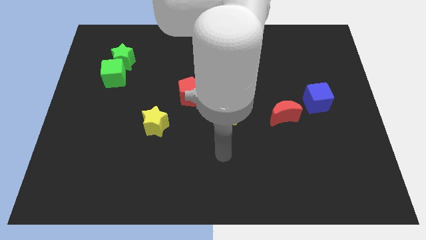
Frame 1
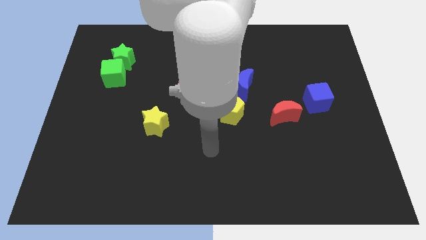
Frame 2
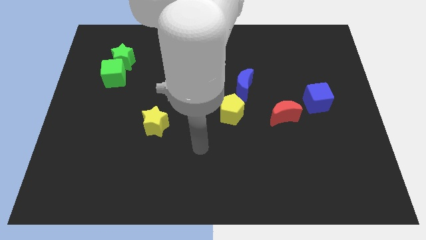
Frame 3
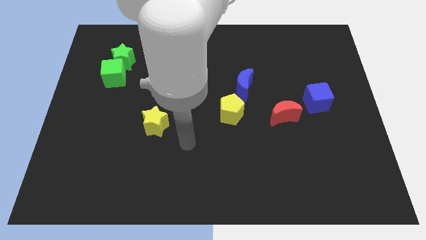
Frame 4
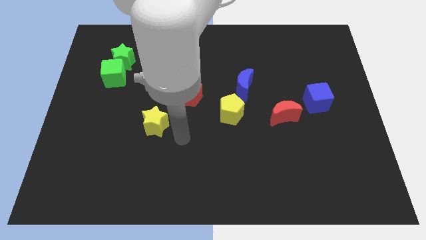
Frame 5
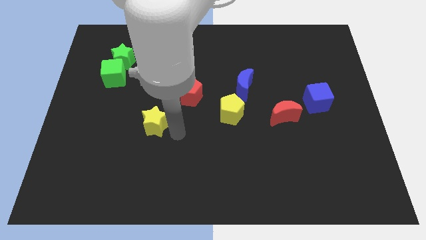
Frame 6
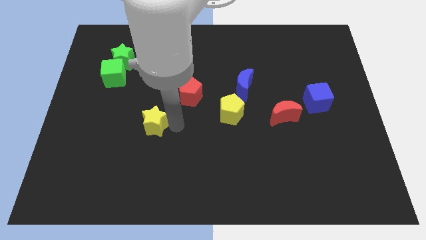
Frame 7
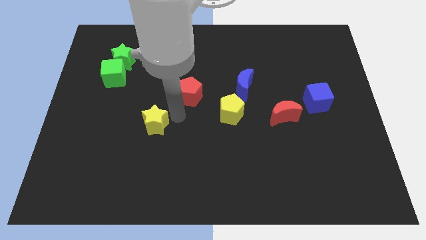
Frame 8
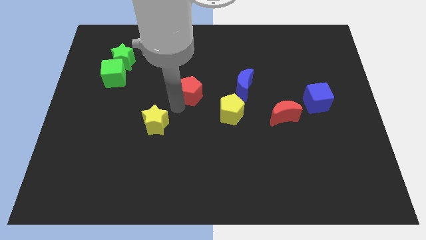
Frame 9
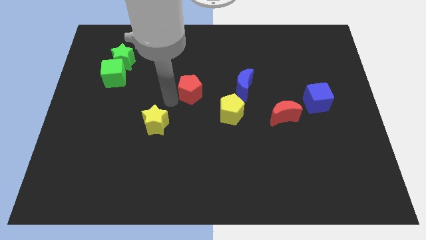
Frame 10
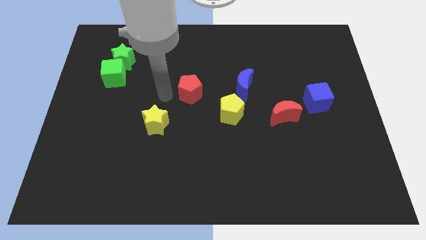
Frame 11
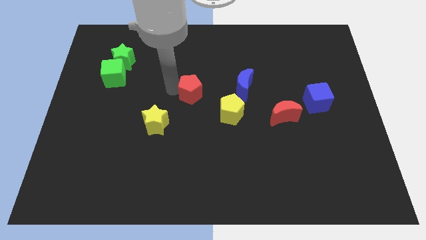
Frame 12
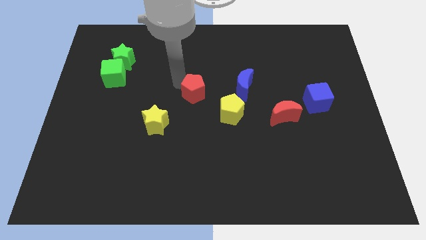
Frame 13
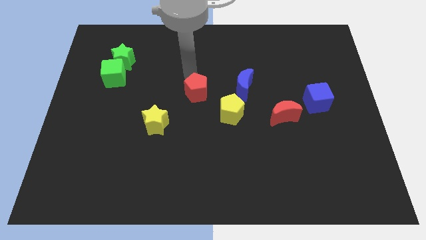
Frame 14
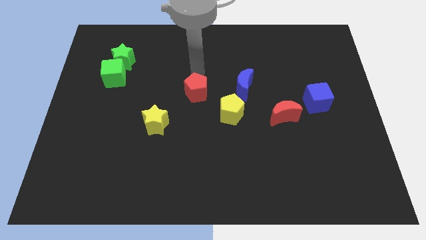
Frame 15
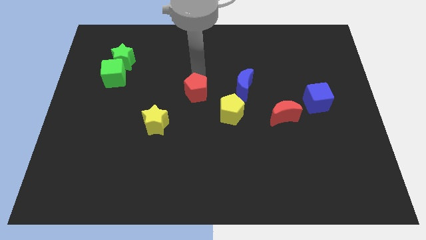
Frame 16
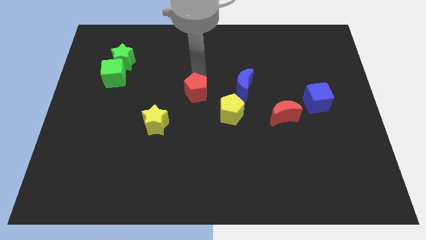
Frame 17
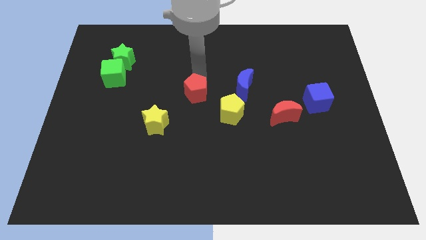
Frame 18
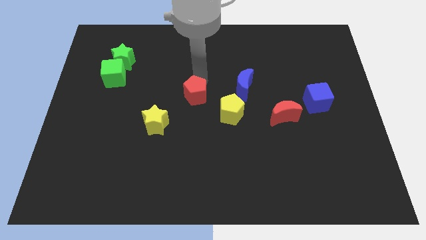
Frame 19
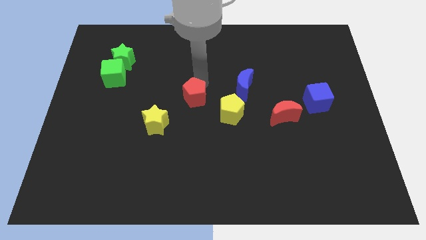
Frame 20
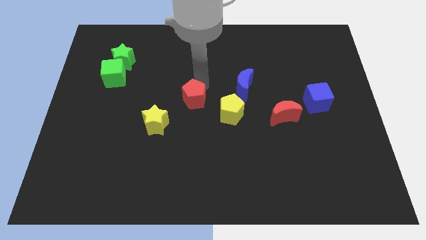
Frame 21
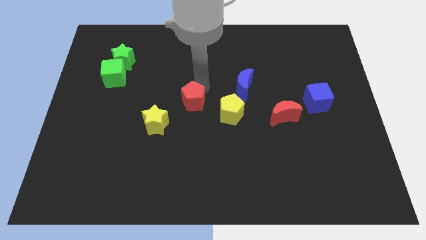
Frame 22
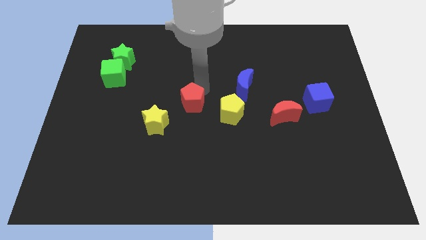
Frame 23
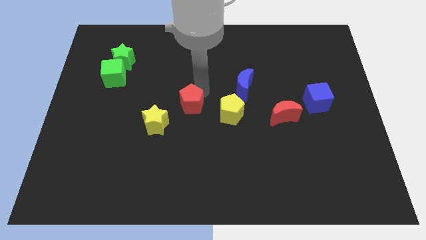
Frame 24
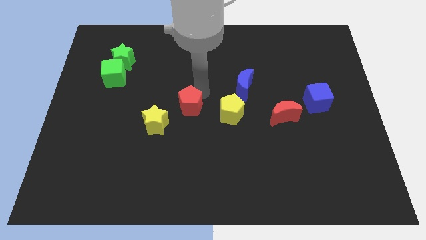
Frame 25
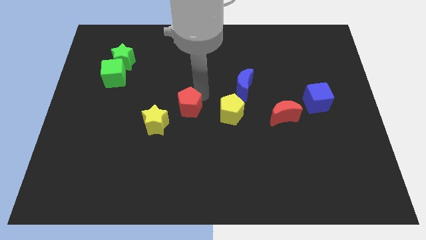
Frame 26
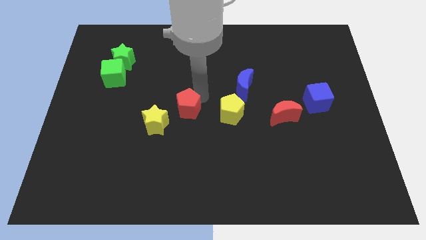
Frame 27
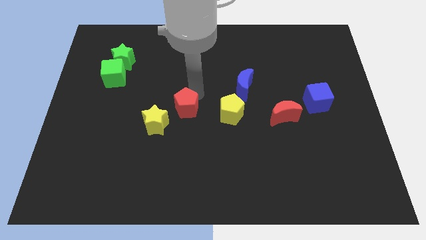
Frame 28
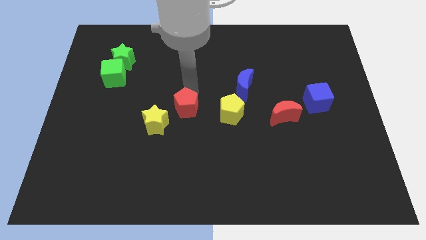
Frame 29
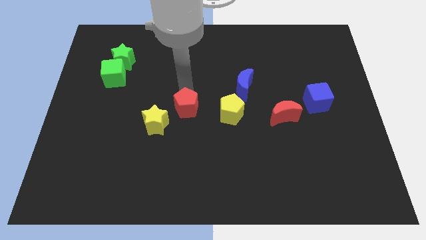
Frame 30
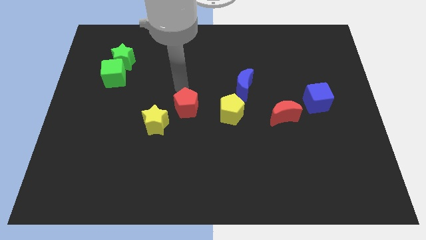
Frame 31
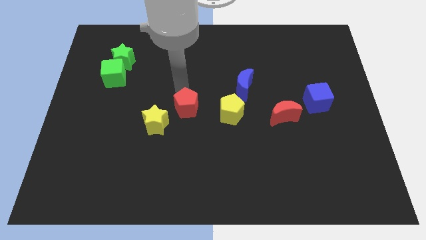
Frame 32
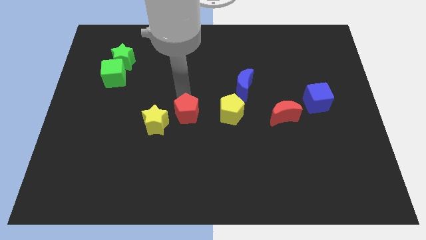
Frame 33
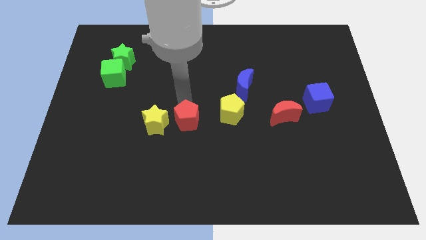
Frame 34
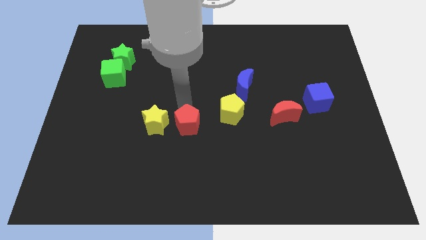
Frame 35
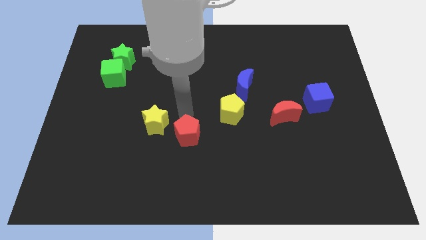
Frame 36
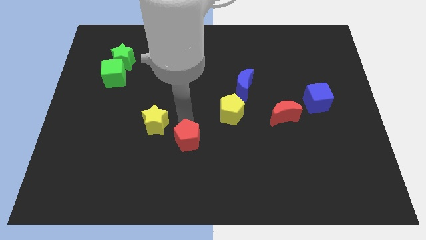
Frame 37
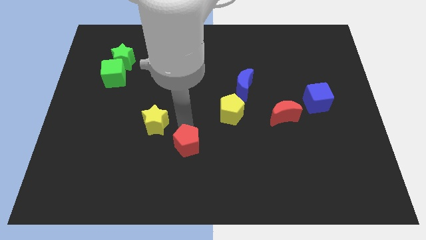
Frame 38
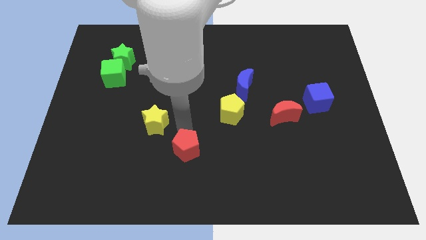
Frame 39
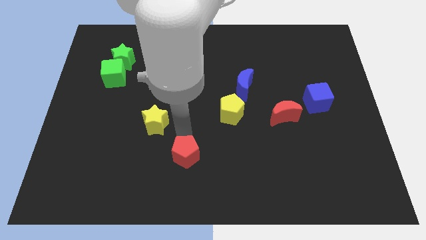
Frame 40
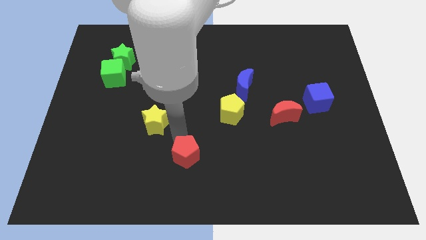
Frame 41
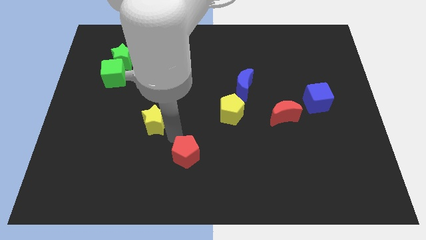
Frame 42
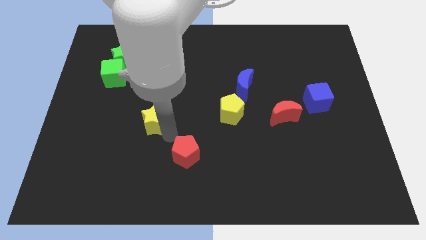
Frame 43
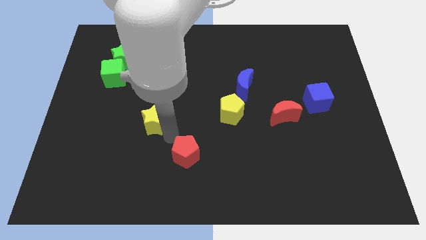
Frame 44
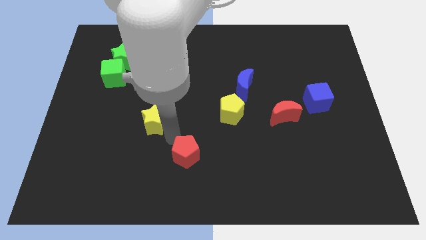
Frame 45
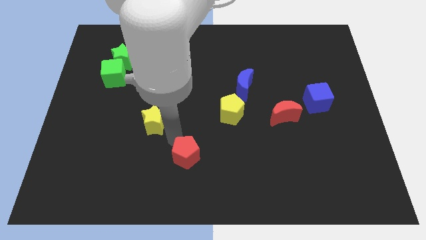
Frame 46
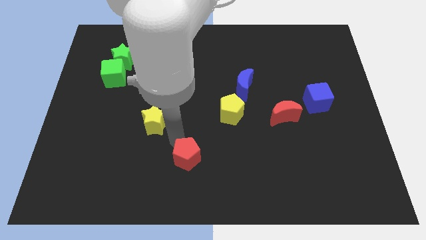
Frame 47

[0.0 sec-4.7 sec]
push the red pentagon to the bottom side

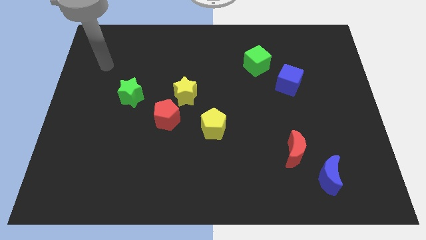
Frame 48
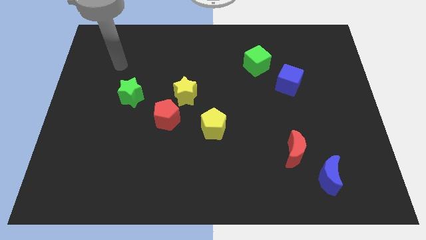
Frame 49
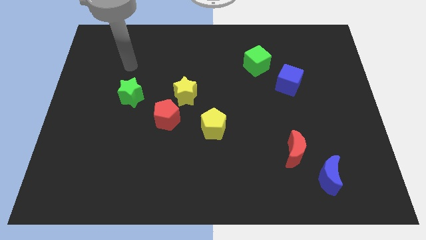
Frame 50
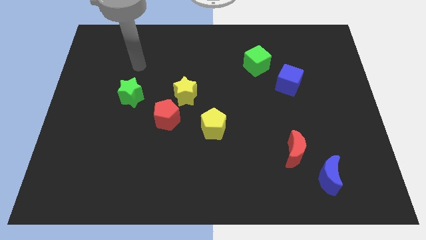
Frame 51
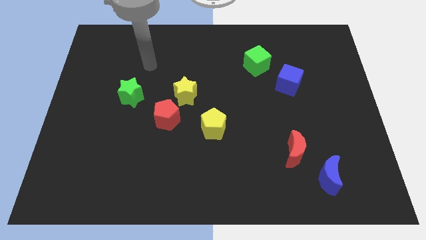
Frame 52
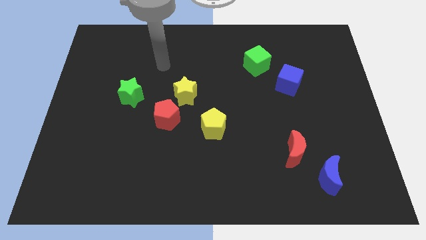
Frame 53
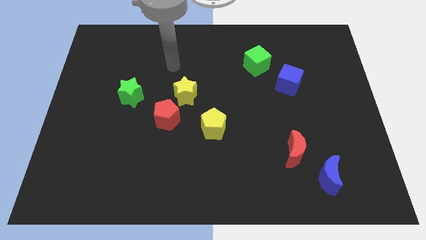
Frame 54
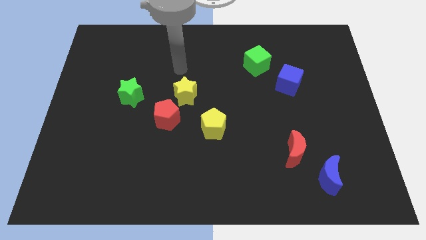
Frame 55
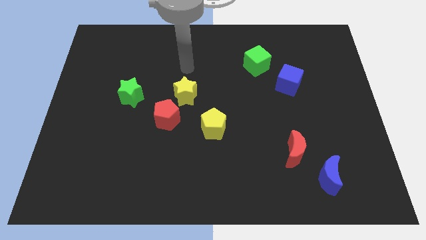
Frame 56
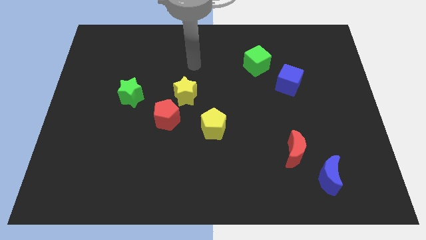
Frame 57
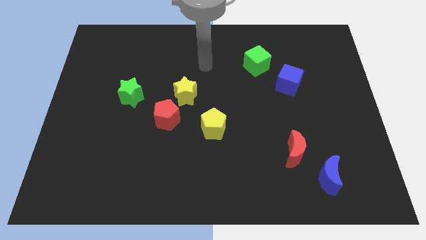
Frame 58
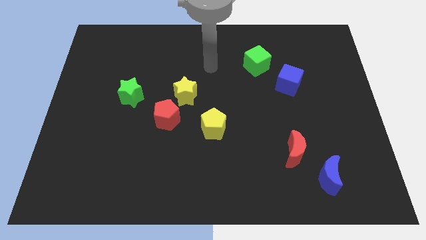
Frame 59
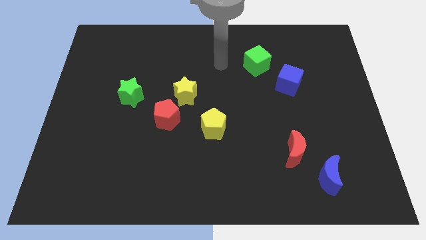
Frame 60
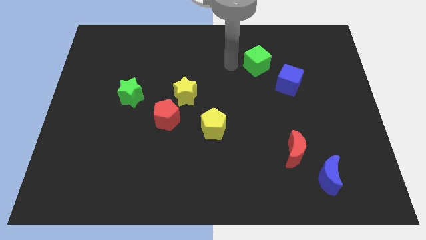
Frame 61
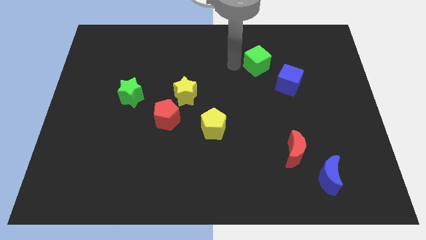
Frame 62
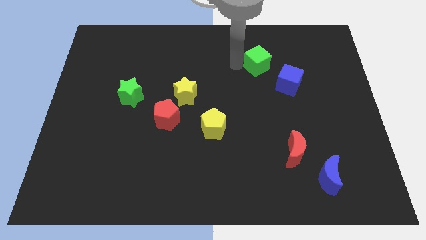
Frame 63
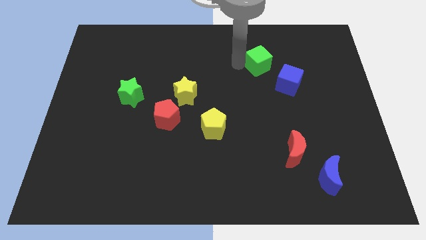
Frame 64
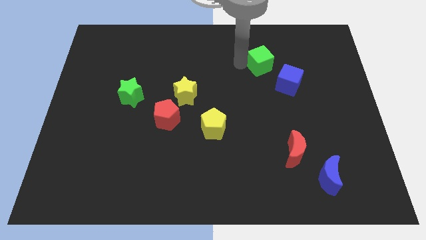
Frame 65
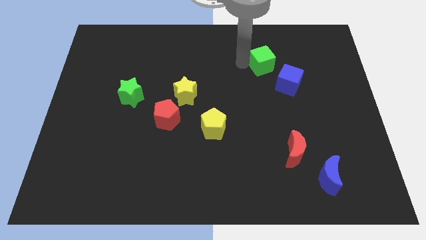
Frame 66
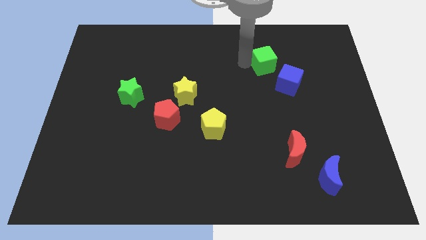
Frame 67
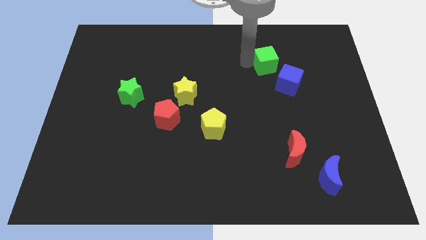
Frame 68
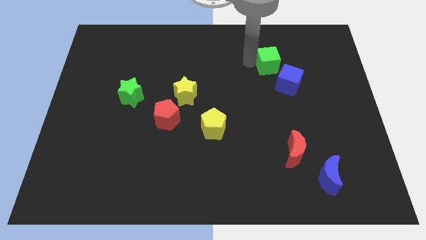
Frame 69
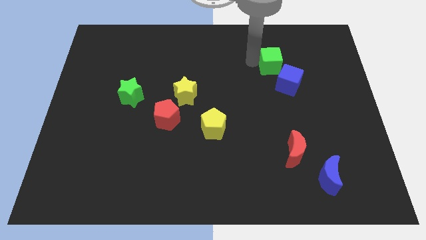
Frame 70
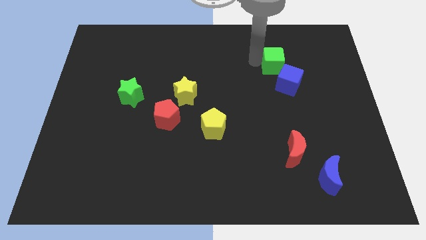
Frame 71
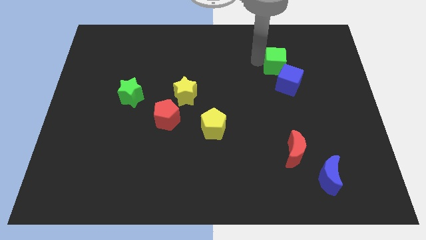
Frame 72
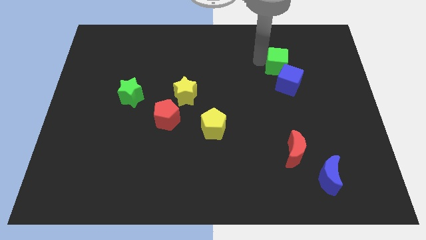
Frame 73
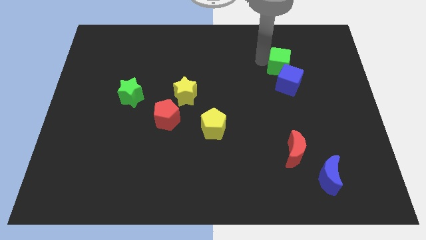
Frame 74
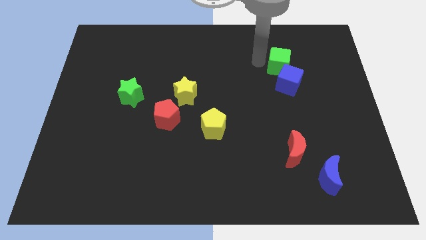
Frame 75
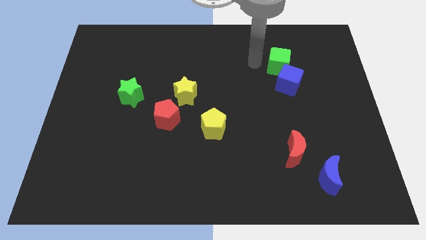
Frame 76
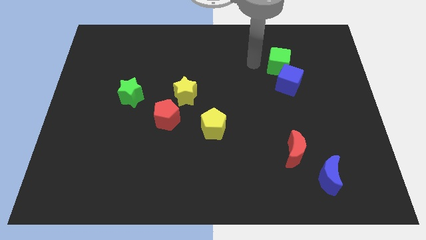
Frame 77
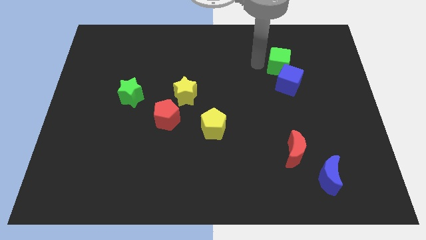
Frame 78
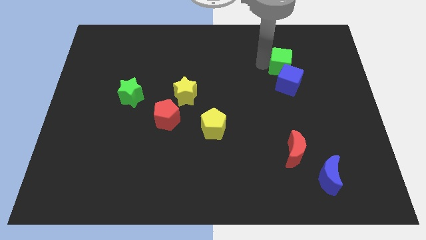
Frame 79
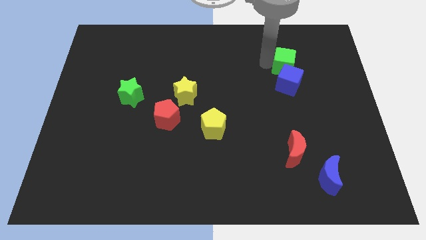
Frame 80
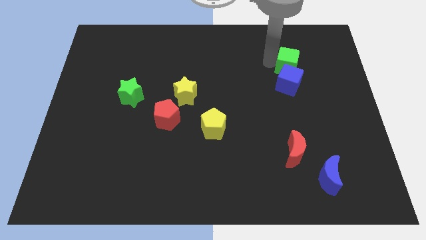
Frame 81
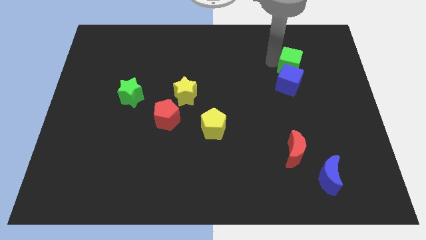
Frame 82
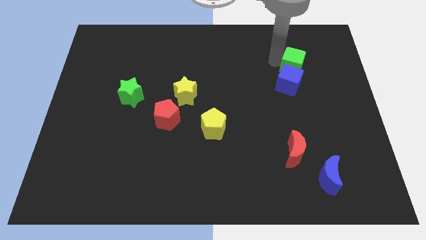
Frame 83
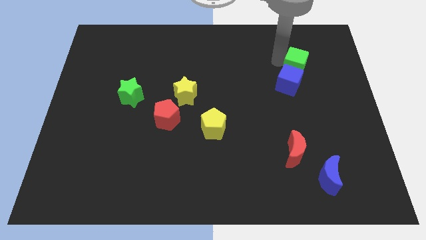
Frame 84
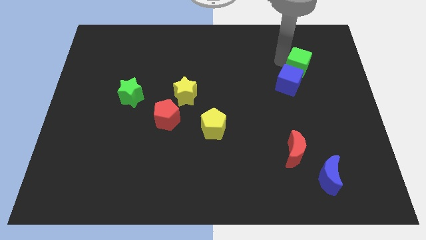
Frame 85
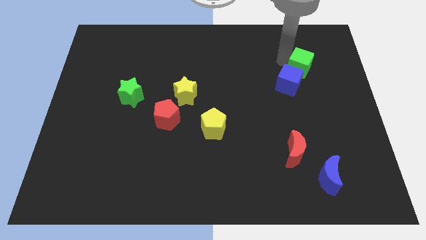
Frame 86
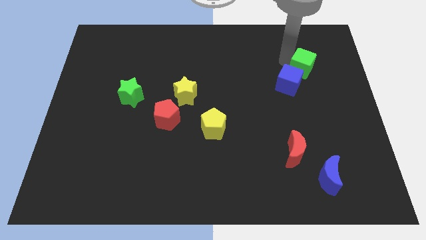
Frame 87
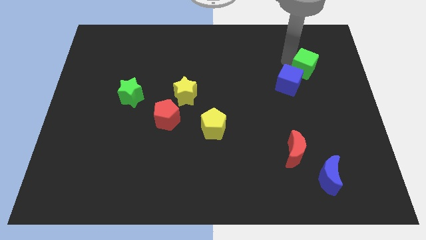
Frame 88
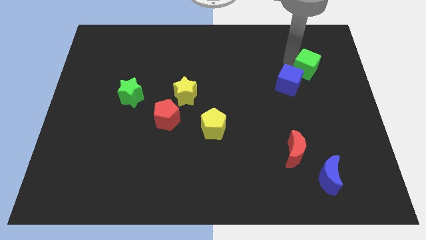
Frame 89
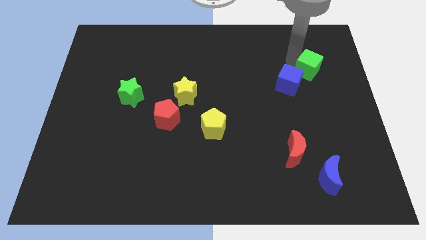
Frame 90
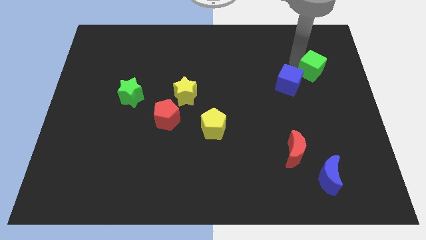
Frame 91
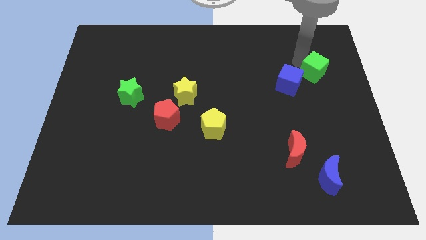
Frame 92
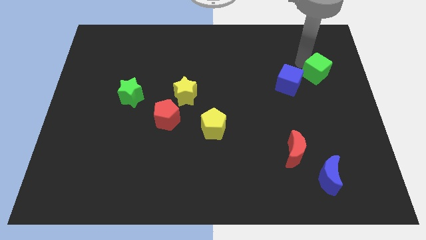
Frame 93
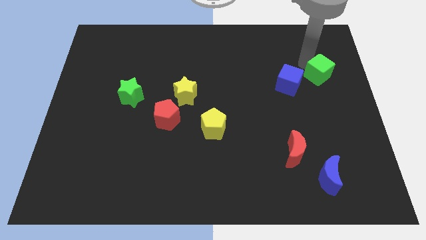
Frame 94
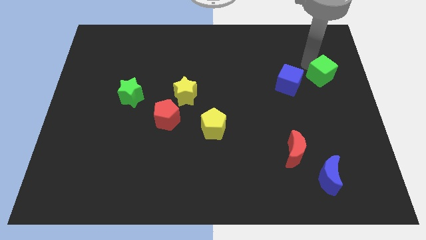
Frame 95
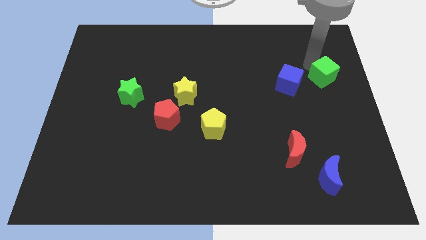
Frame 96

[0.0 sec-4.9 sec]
slide the green cube to the center right
